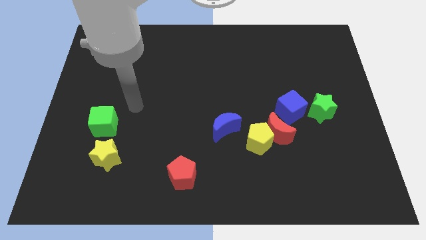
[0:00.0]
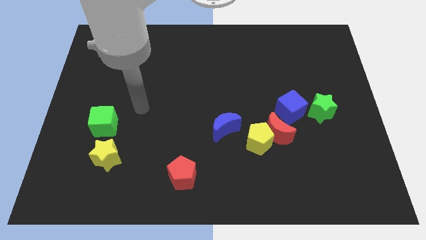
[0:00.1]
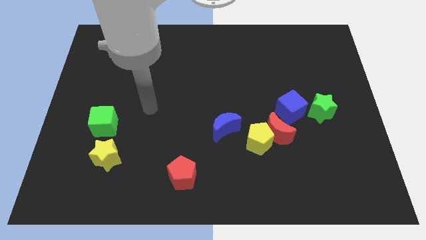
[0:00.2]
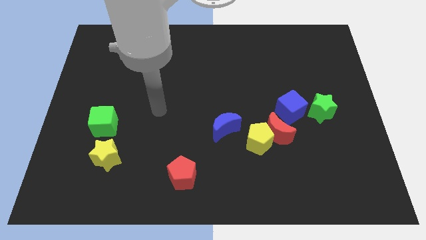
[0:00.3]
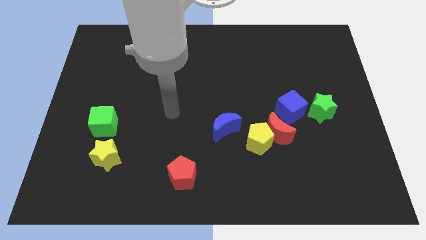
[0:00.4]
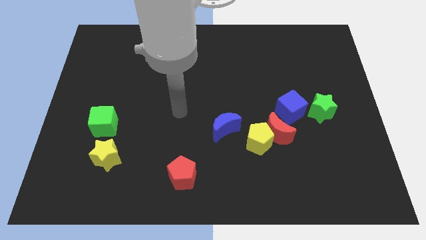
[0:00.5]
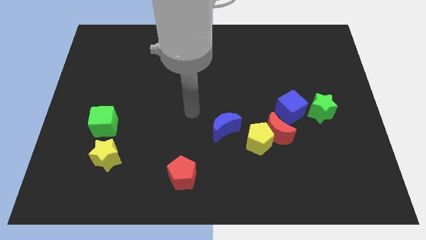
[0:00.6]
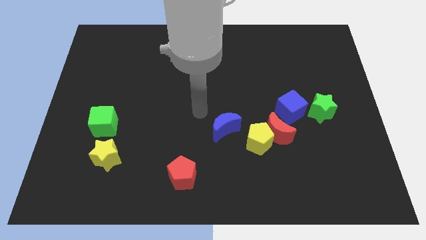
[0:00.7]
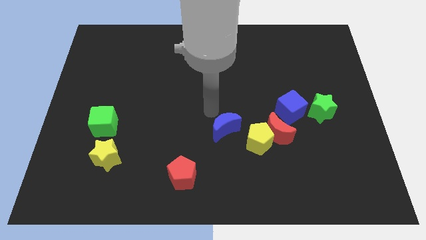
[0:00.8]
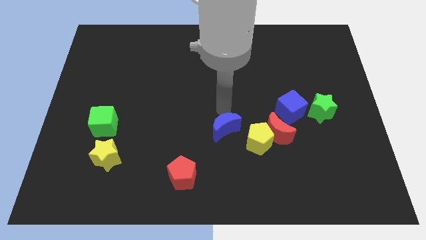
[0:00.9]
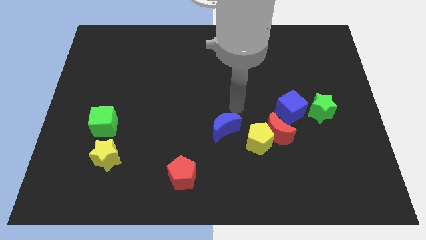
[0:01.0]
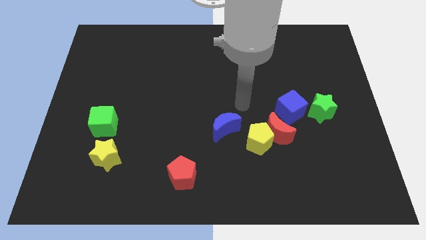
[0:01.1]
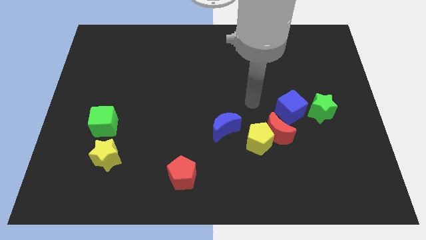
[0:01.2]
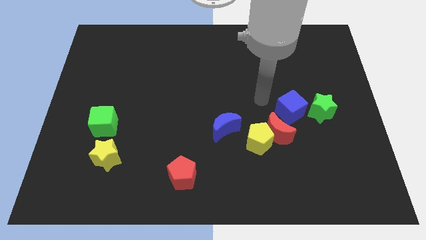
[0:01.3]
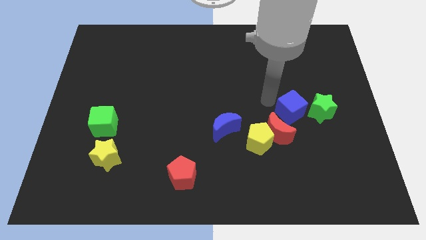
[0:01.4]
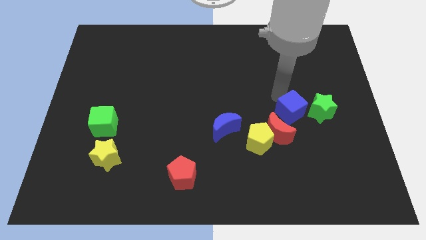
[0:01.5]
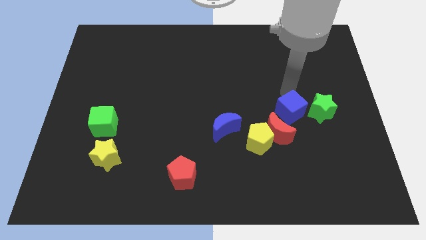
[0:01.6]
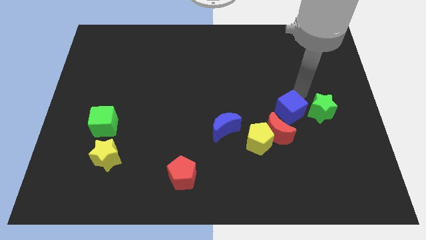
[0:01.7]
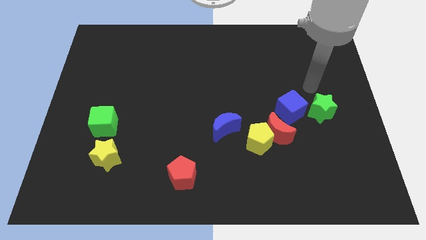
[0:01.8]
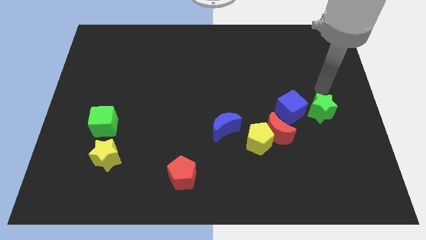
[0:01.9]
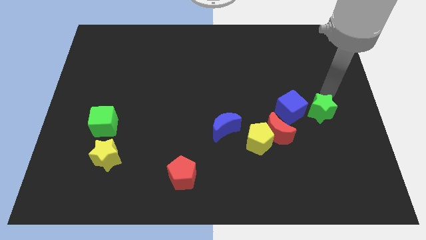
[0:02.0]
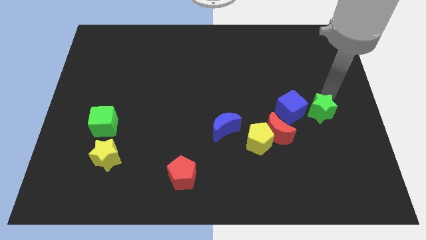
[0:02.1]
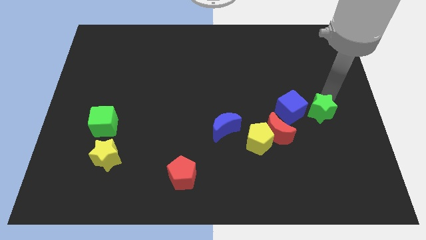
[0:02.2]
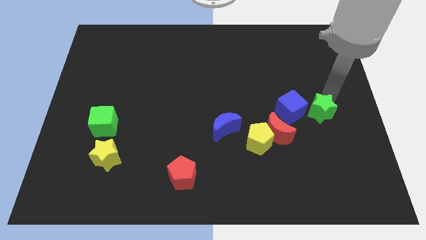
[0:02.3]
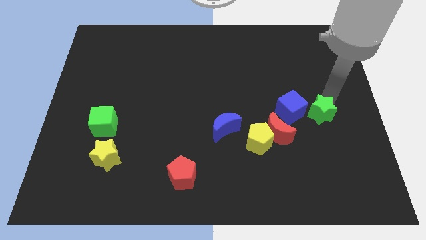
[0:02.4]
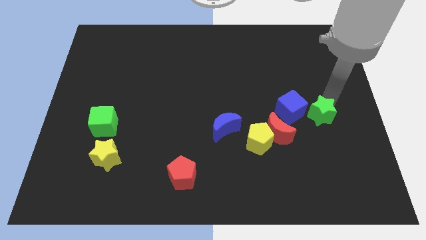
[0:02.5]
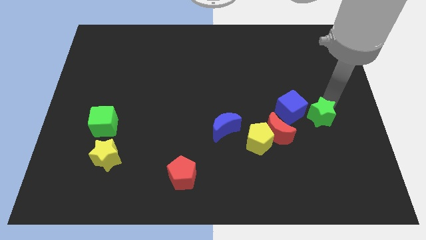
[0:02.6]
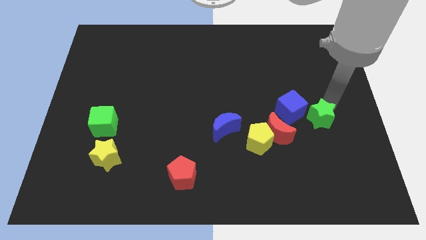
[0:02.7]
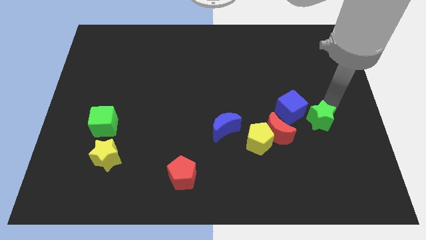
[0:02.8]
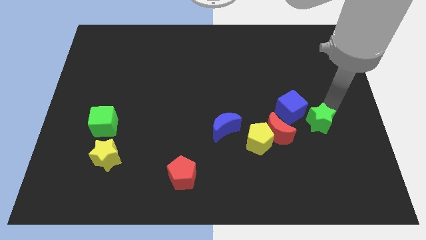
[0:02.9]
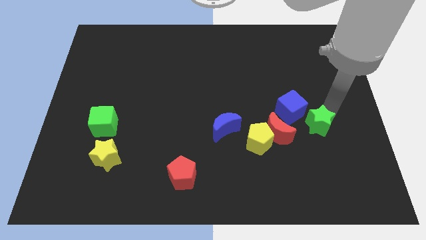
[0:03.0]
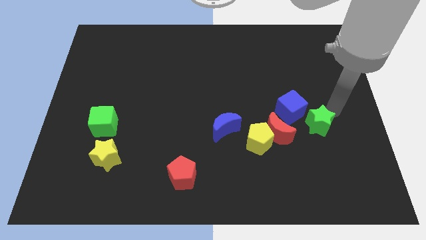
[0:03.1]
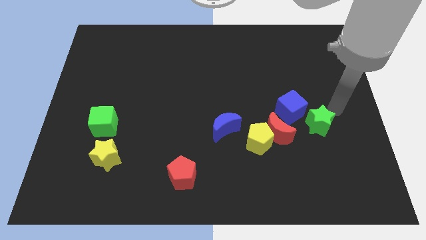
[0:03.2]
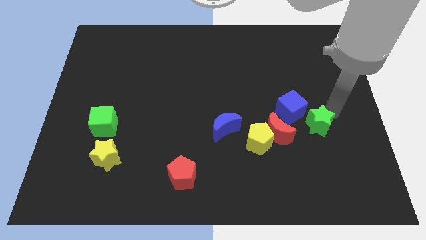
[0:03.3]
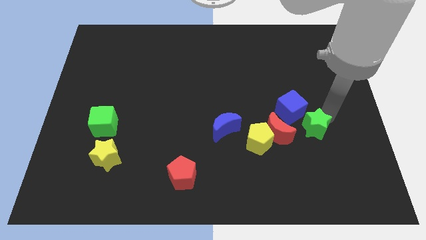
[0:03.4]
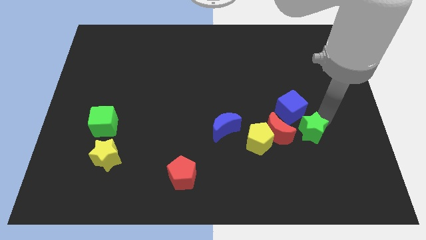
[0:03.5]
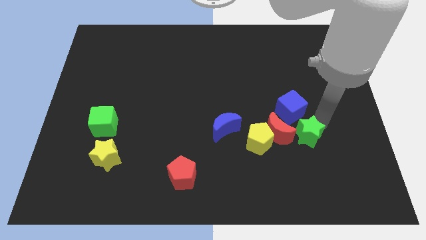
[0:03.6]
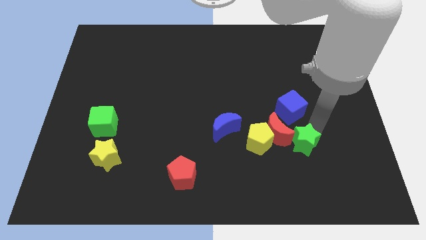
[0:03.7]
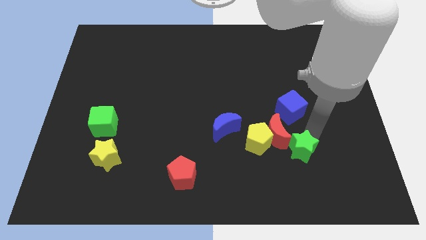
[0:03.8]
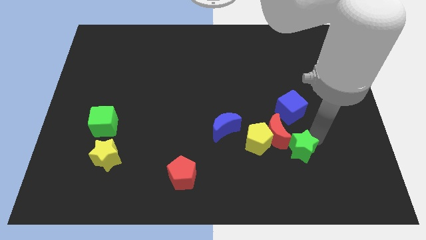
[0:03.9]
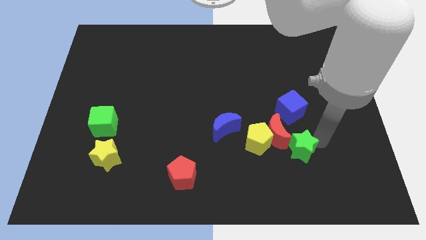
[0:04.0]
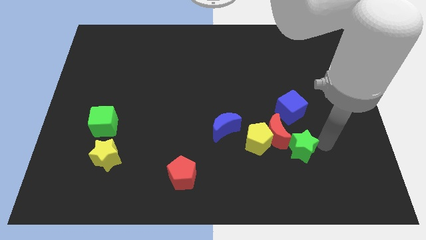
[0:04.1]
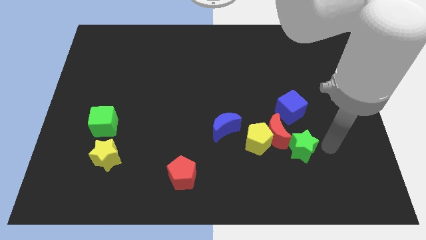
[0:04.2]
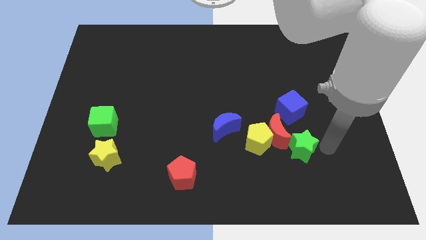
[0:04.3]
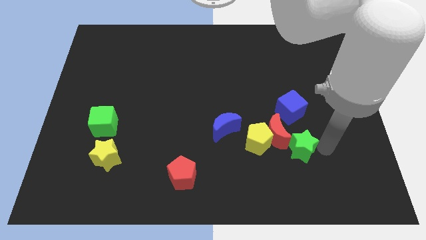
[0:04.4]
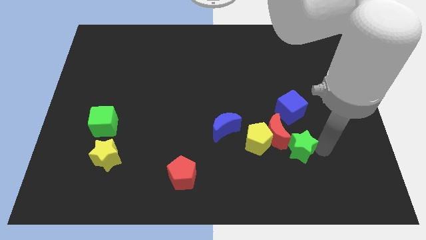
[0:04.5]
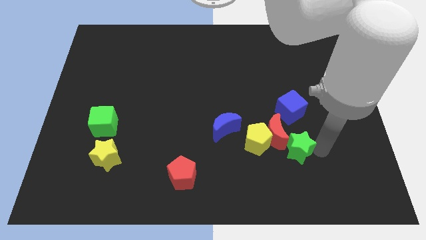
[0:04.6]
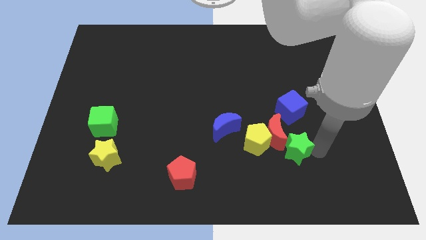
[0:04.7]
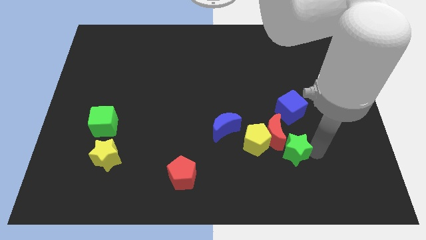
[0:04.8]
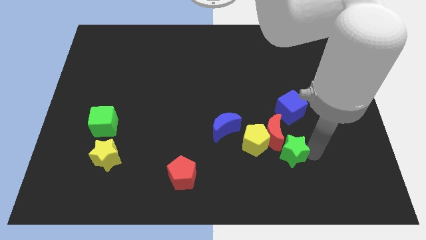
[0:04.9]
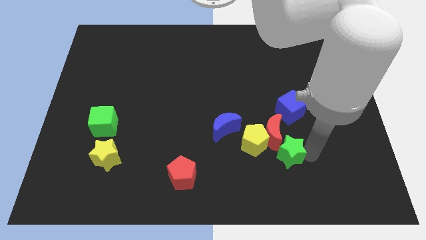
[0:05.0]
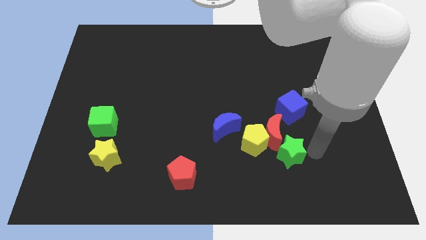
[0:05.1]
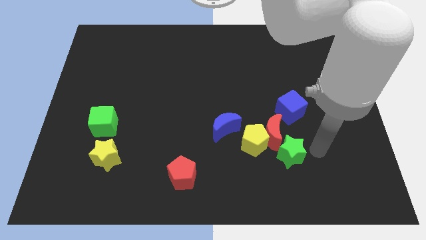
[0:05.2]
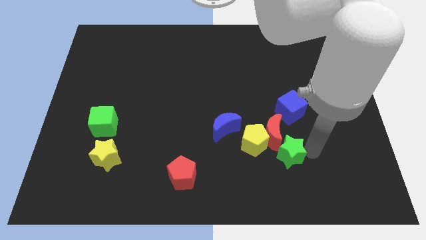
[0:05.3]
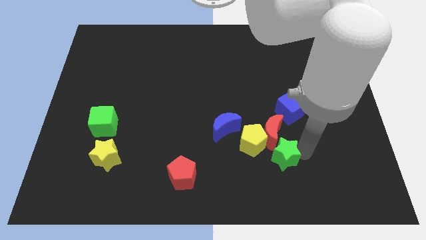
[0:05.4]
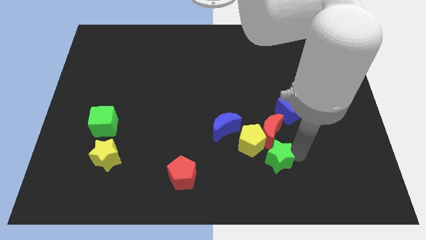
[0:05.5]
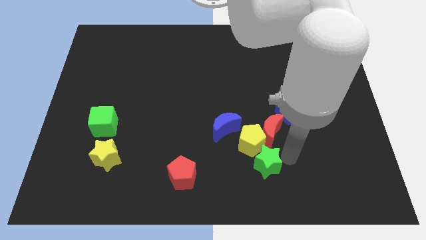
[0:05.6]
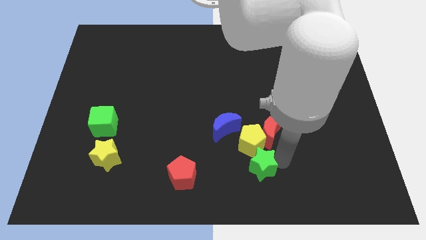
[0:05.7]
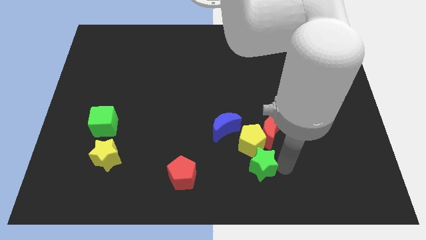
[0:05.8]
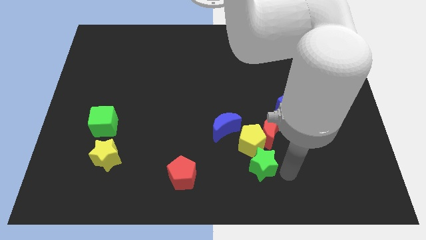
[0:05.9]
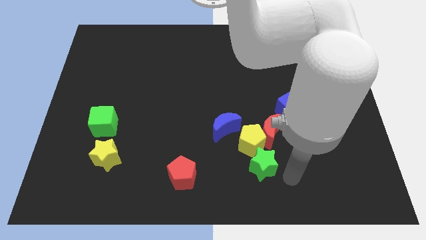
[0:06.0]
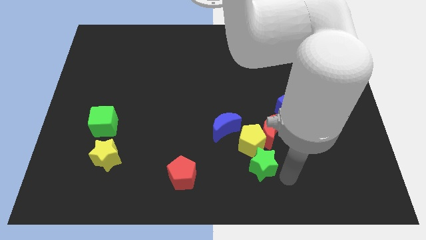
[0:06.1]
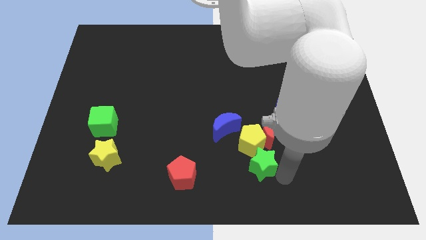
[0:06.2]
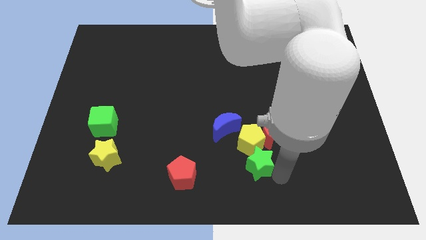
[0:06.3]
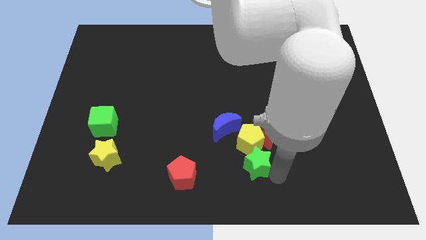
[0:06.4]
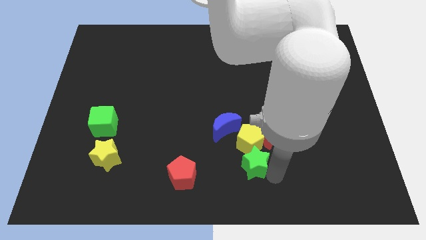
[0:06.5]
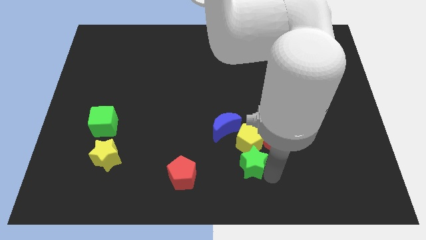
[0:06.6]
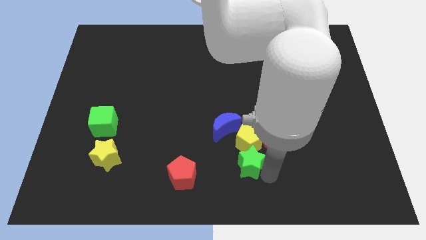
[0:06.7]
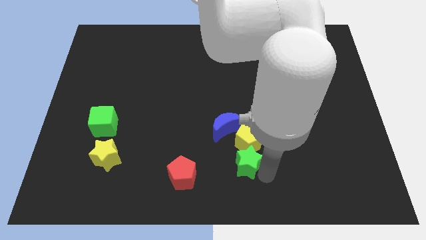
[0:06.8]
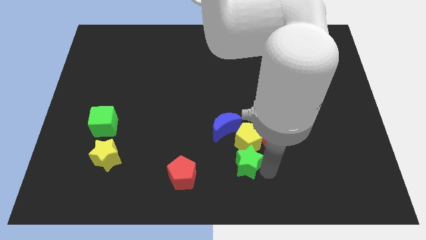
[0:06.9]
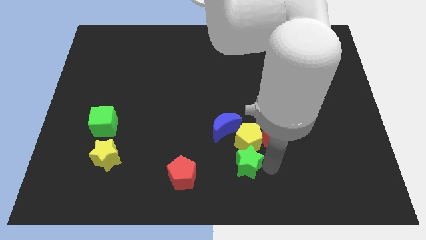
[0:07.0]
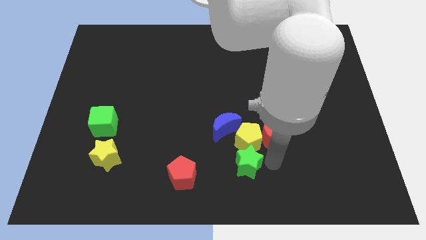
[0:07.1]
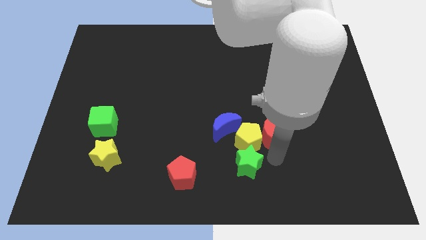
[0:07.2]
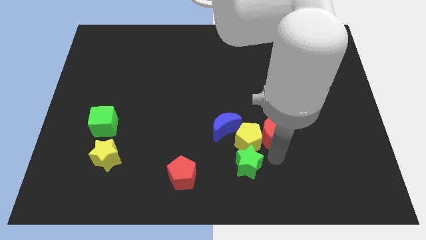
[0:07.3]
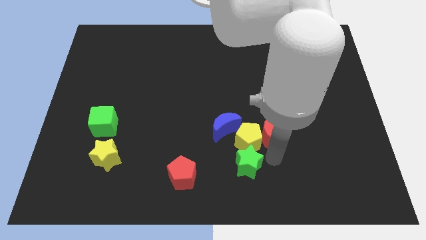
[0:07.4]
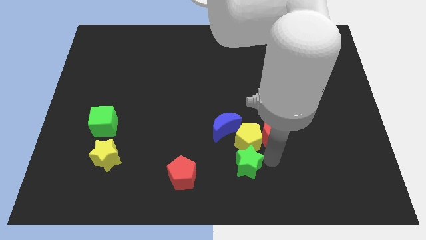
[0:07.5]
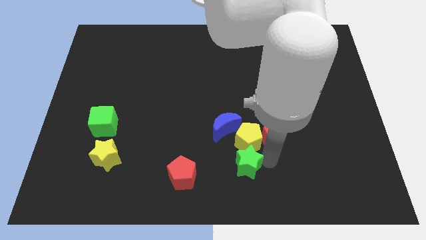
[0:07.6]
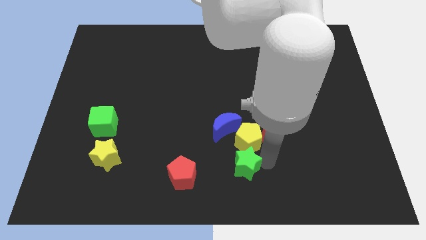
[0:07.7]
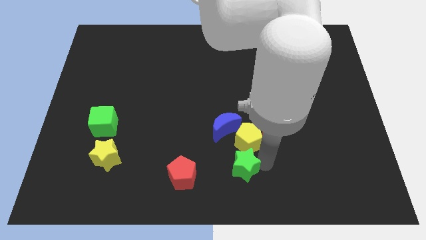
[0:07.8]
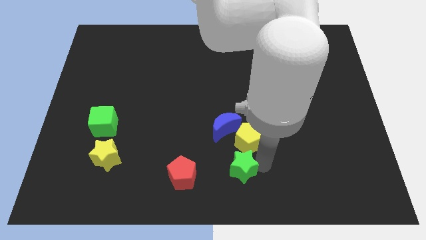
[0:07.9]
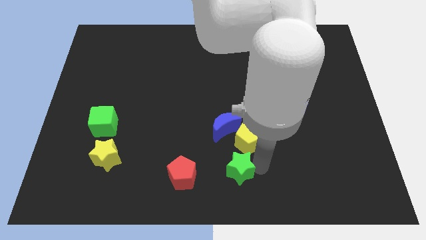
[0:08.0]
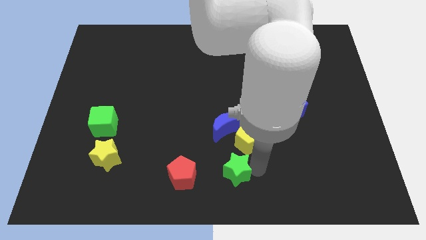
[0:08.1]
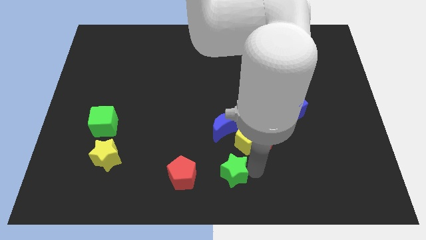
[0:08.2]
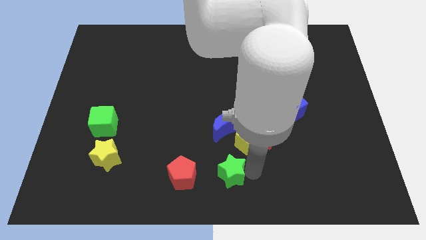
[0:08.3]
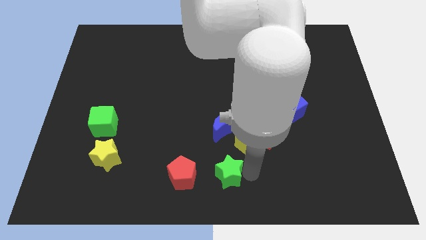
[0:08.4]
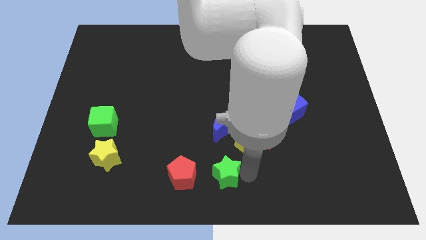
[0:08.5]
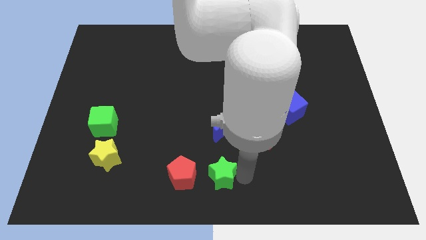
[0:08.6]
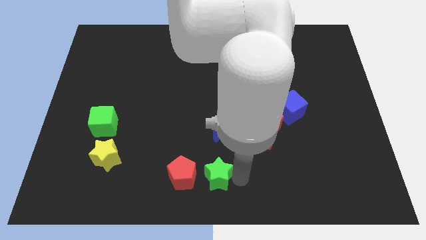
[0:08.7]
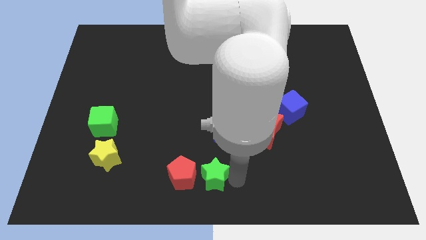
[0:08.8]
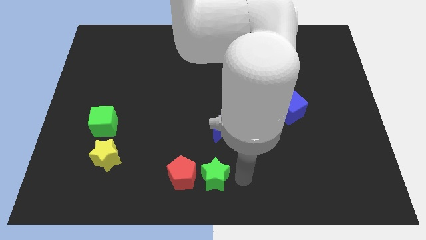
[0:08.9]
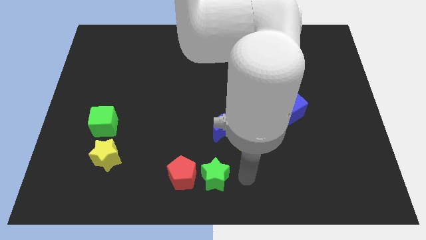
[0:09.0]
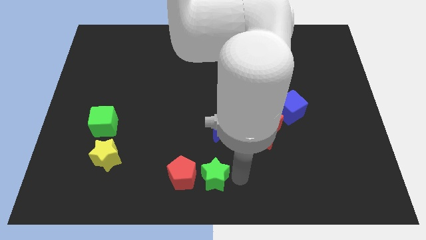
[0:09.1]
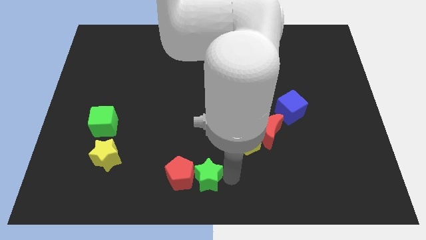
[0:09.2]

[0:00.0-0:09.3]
put the green star towards the red pentagon
